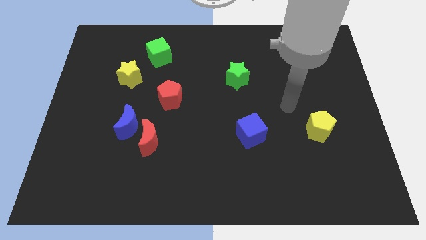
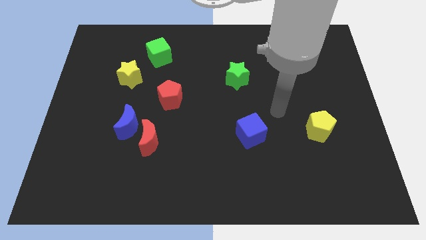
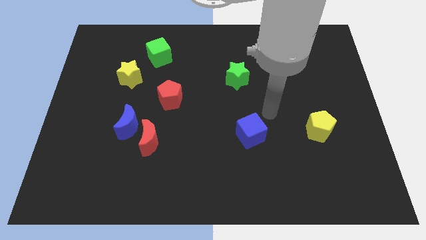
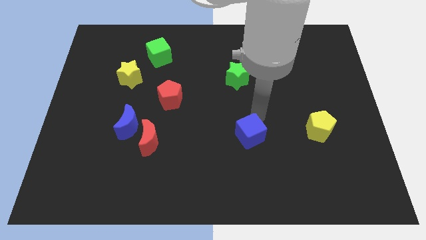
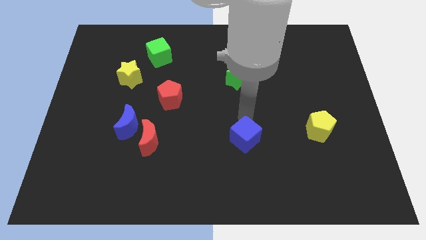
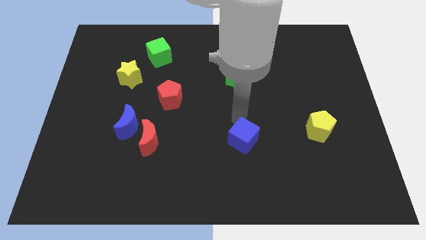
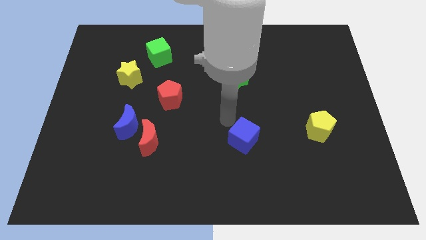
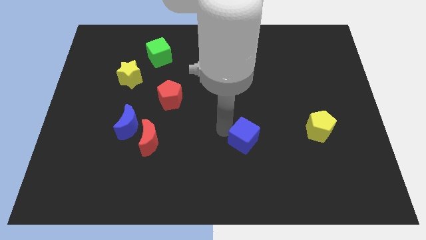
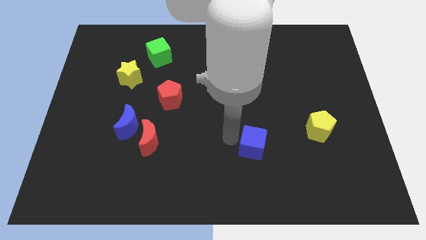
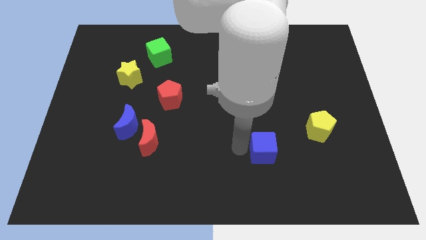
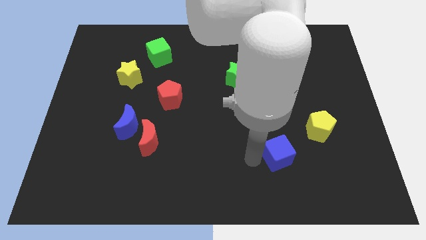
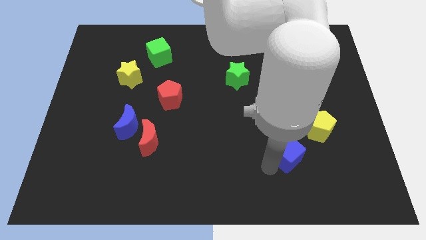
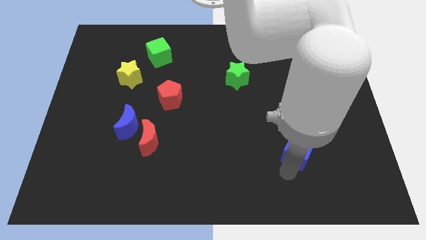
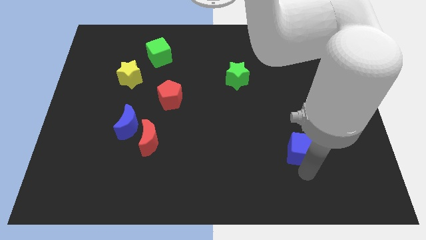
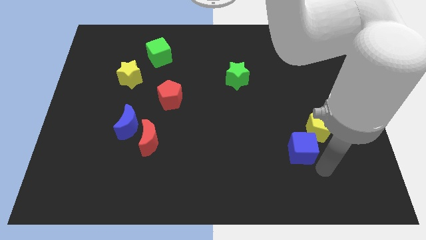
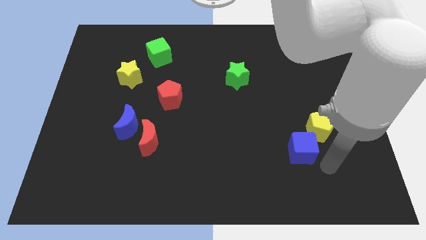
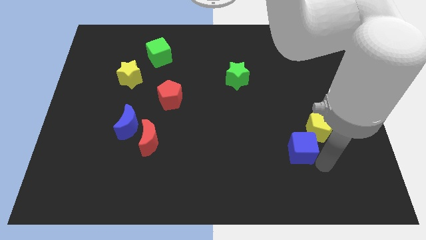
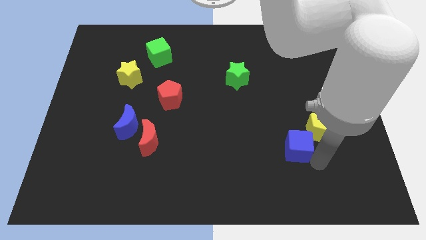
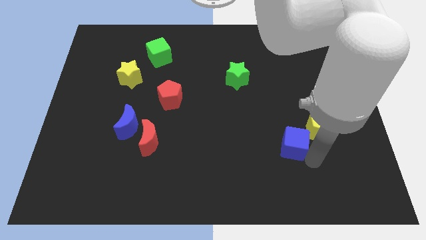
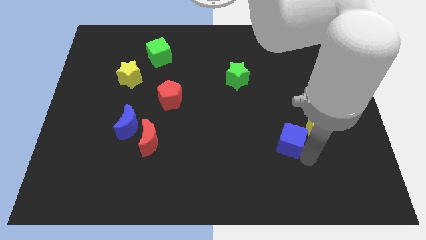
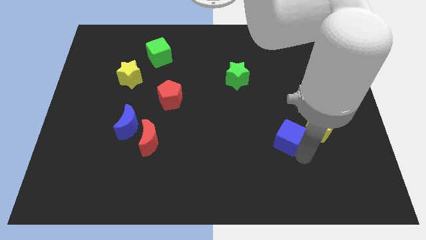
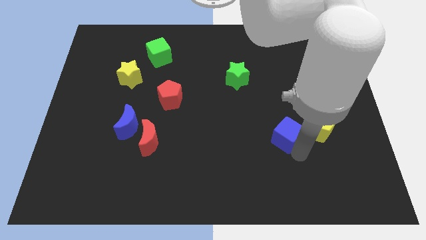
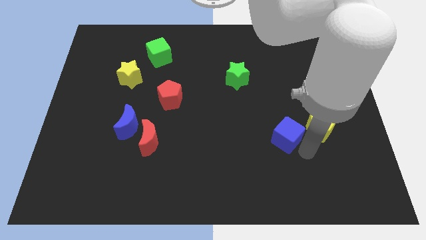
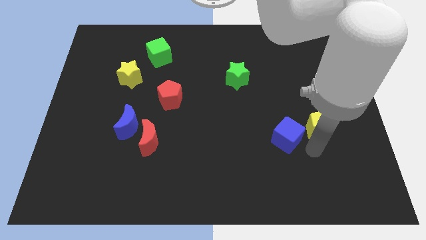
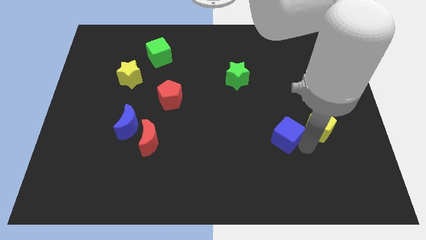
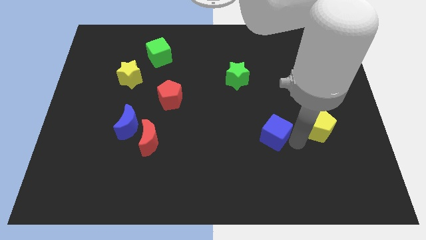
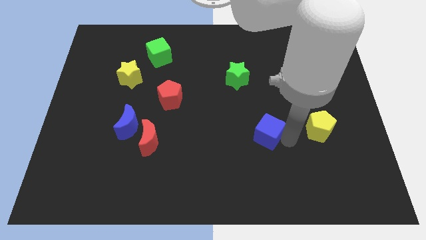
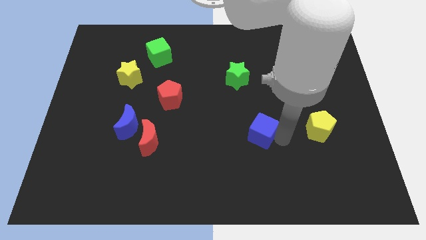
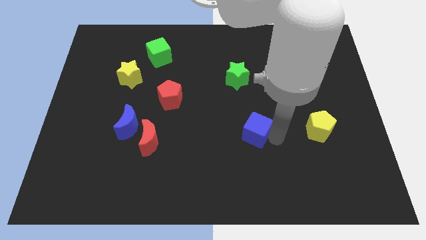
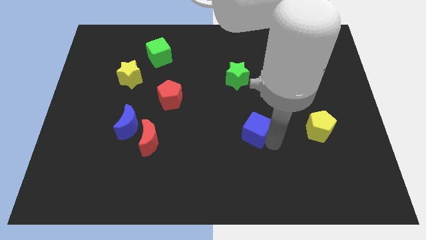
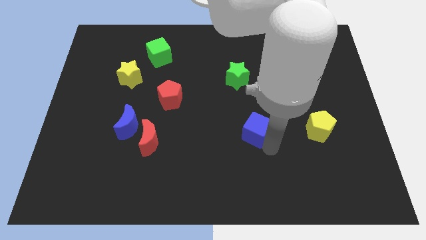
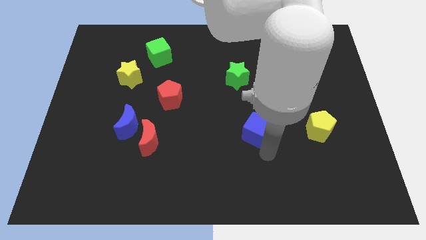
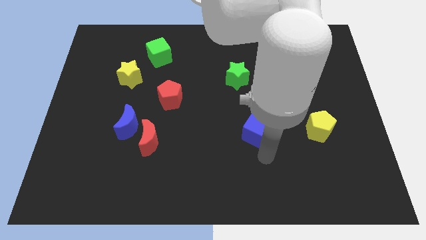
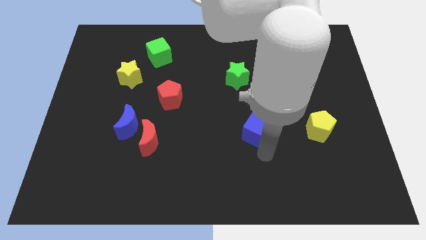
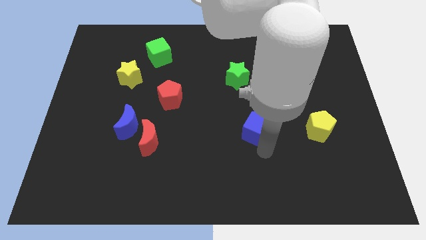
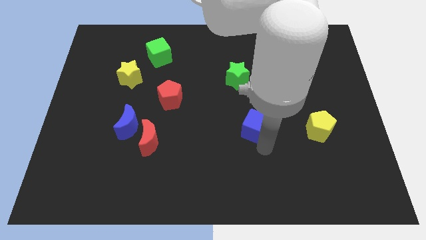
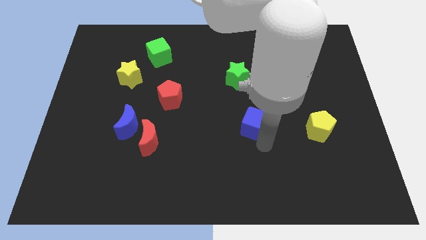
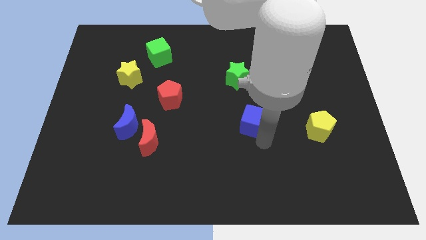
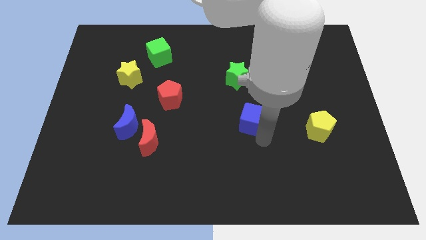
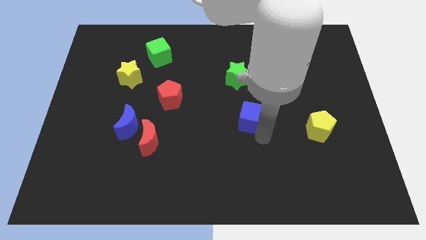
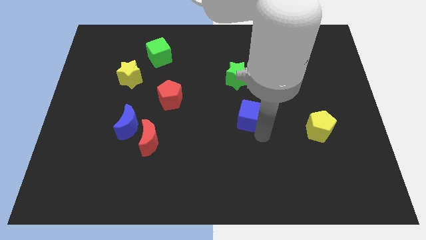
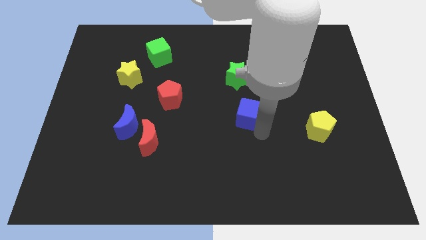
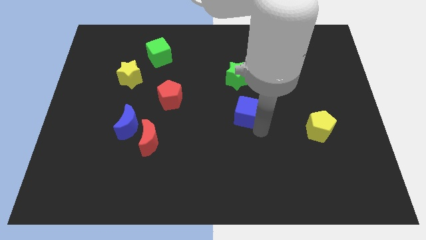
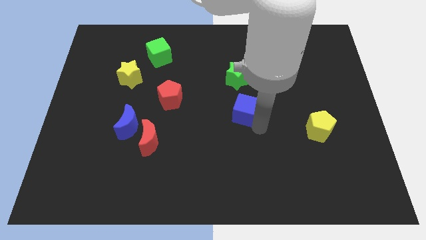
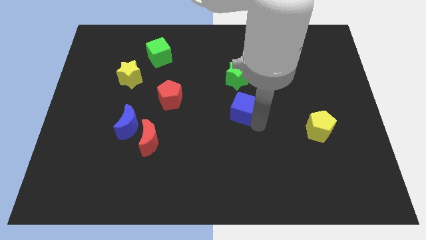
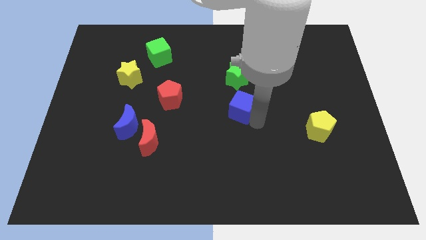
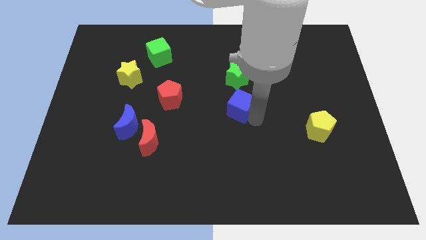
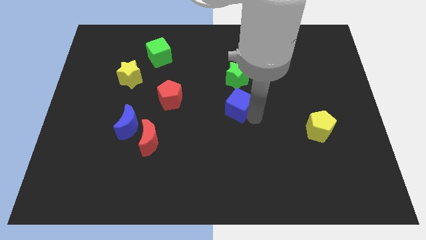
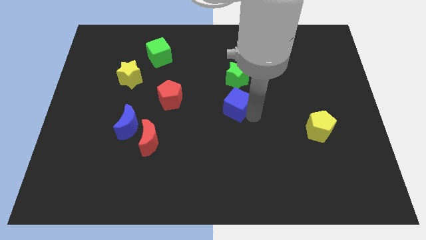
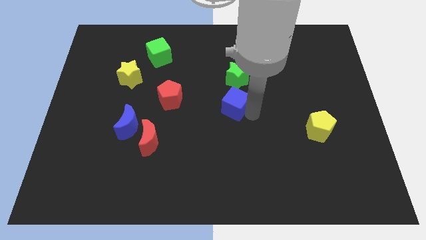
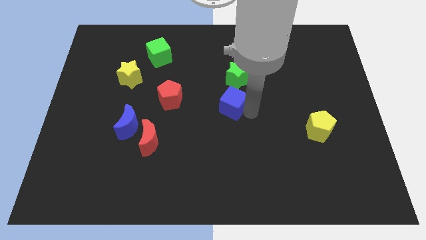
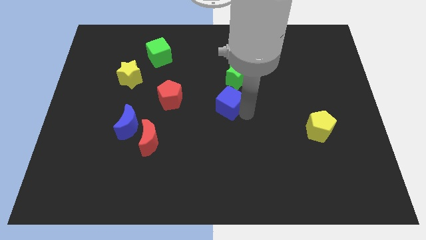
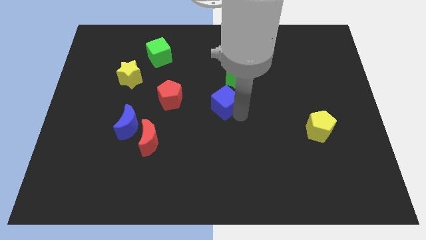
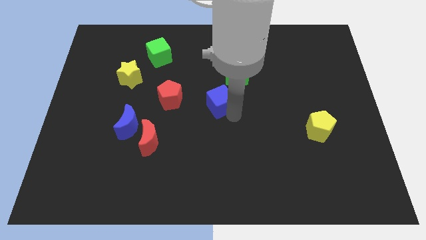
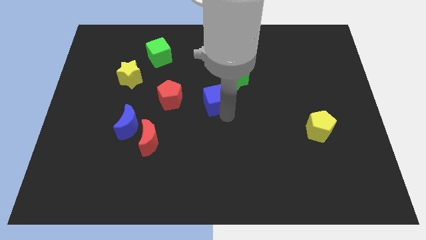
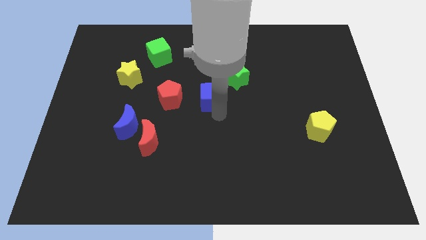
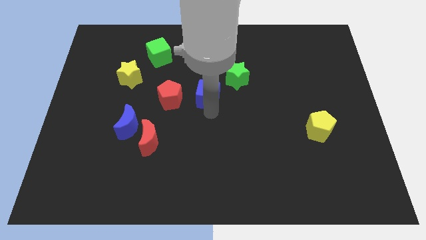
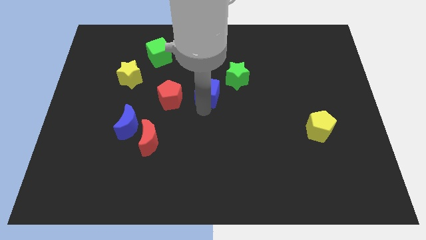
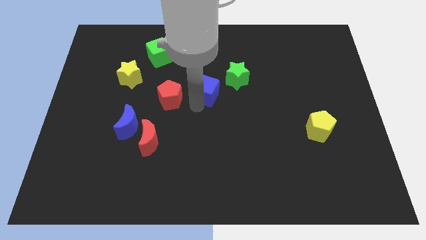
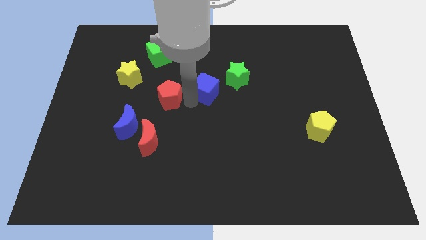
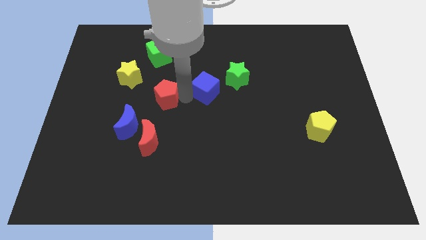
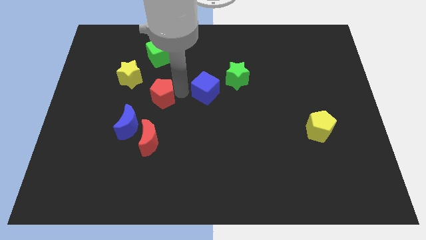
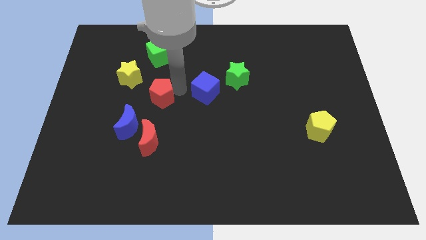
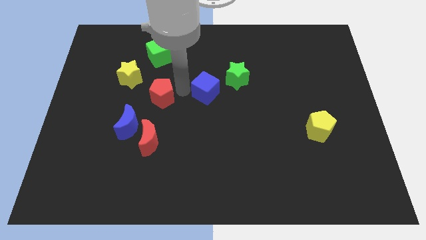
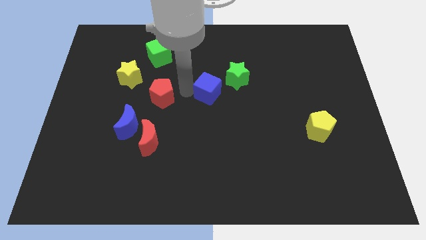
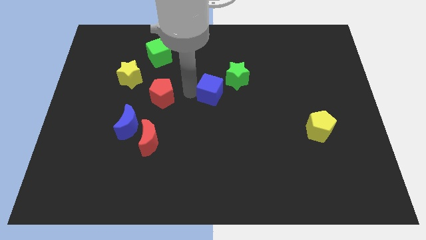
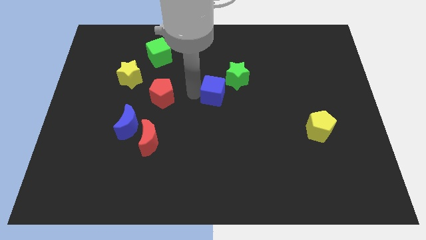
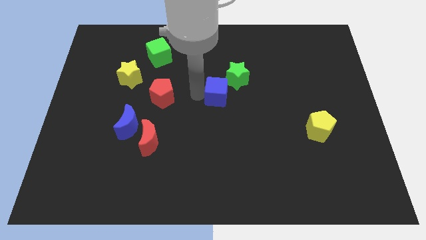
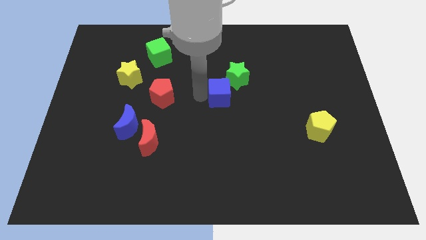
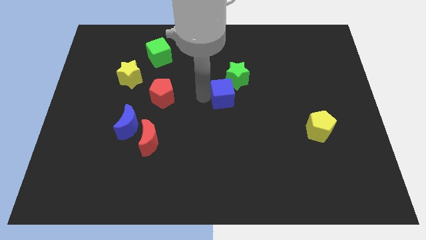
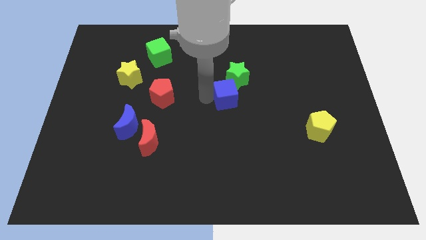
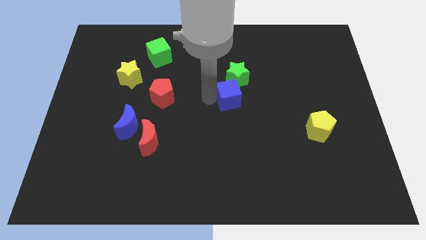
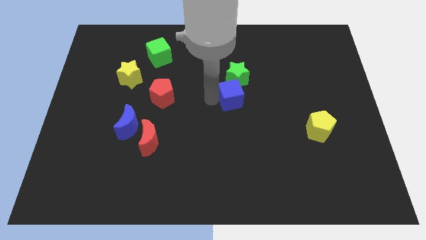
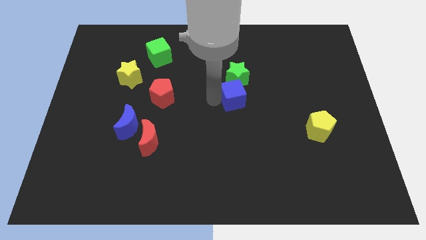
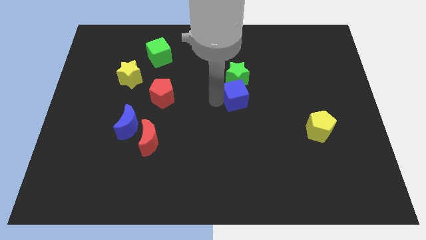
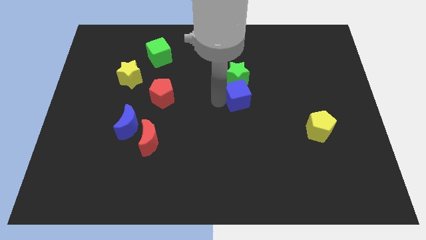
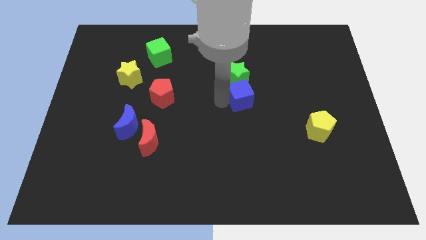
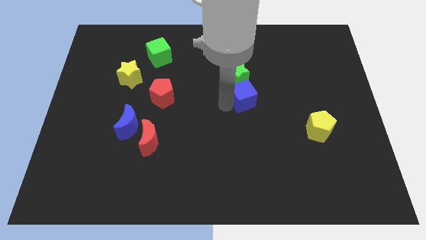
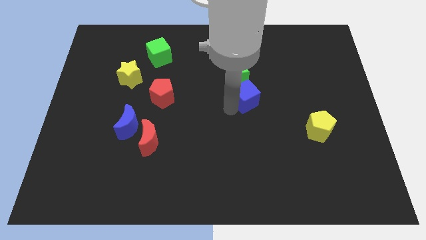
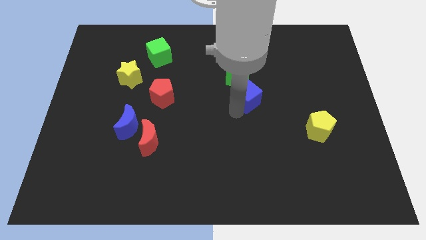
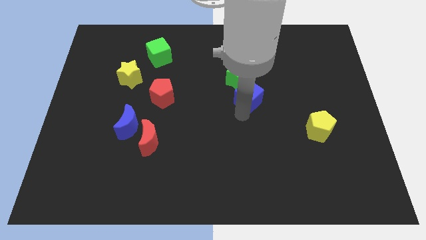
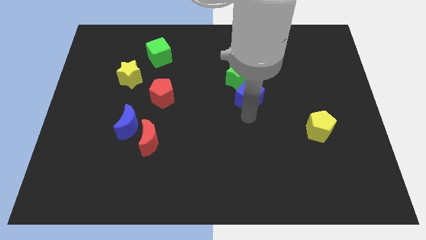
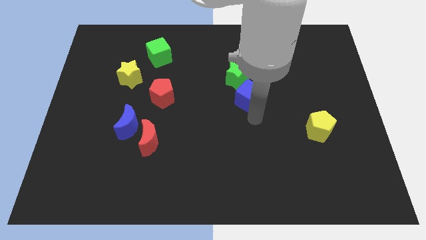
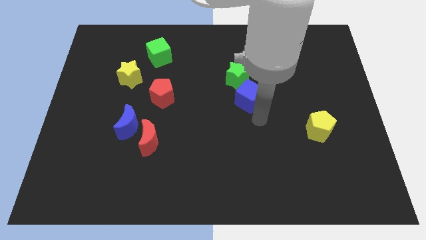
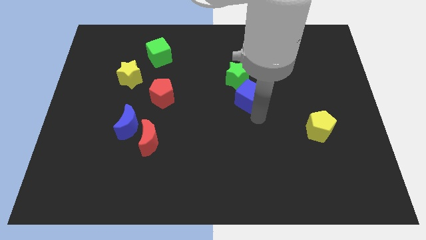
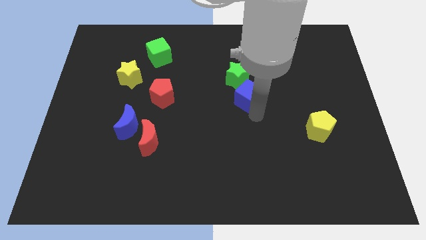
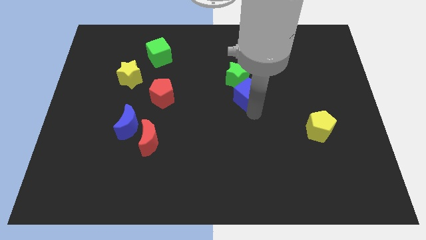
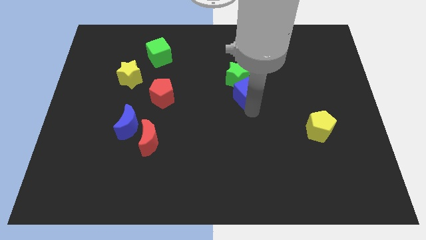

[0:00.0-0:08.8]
put the blue cube next to the green star
